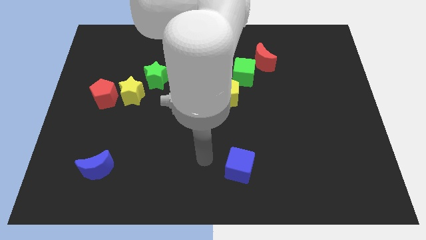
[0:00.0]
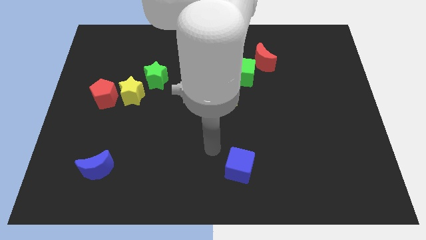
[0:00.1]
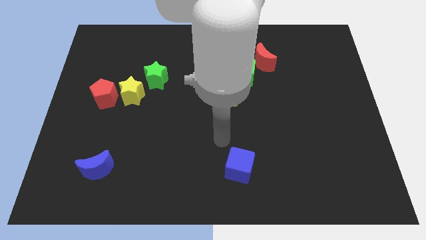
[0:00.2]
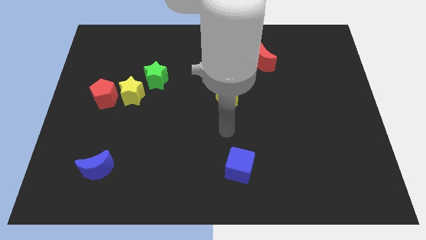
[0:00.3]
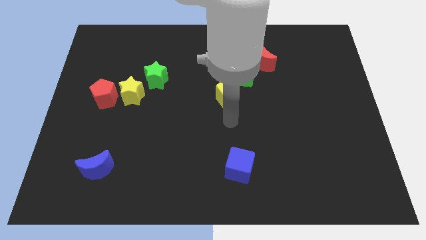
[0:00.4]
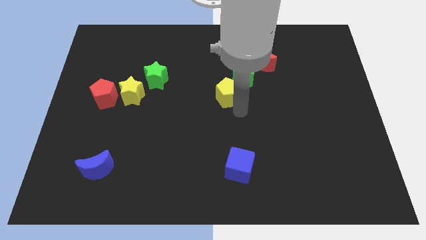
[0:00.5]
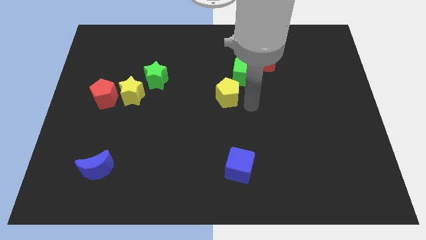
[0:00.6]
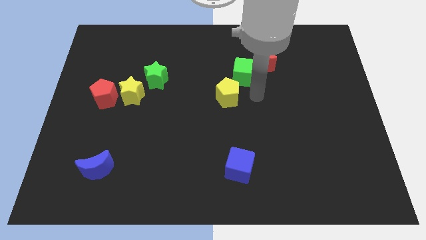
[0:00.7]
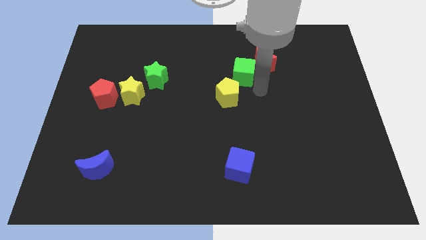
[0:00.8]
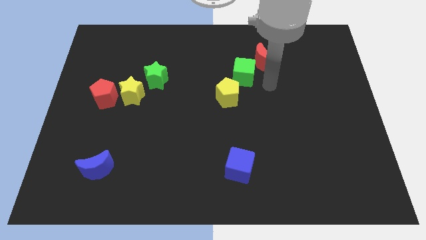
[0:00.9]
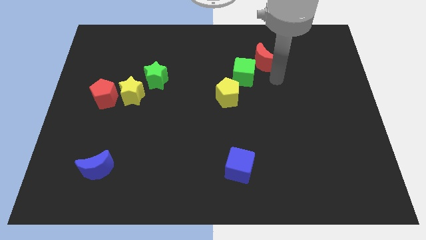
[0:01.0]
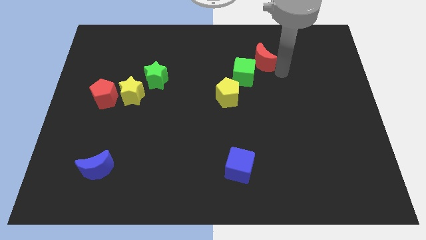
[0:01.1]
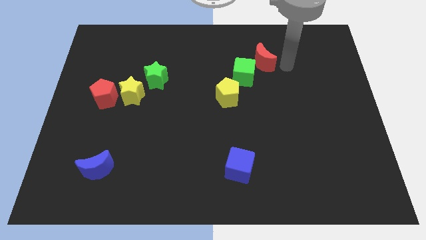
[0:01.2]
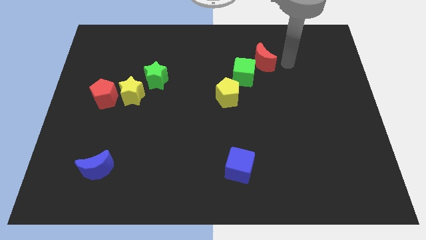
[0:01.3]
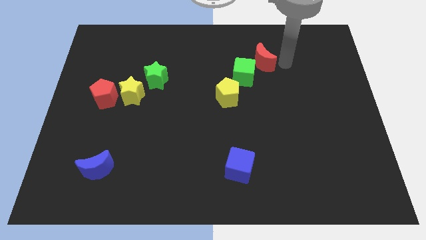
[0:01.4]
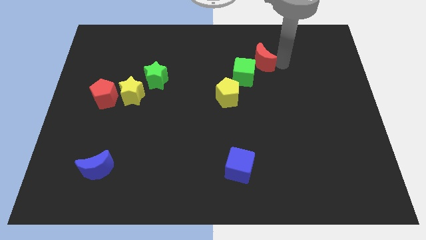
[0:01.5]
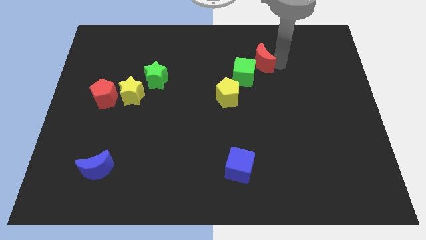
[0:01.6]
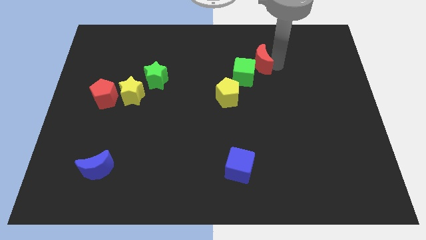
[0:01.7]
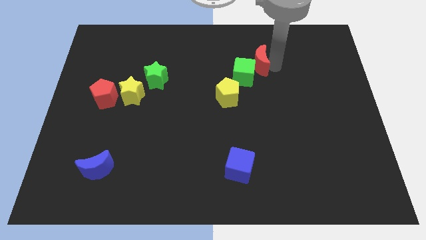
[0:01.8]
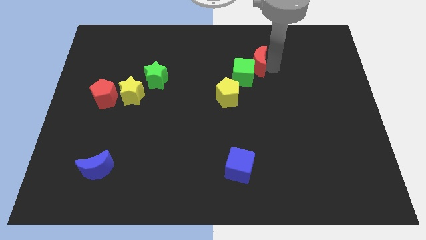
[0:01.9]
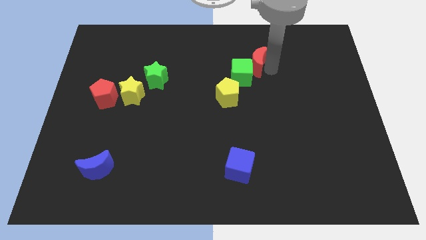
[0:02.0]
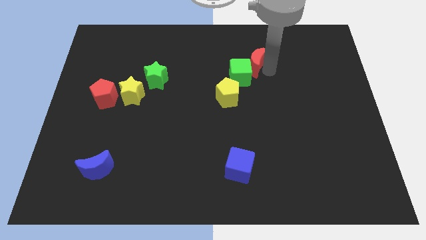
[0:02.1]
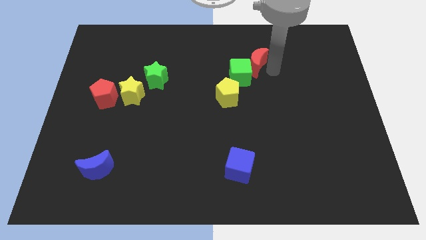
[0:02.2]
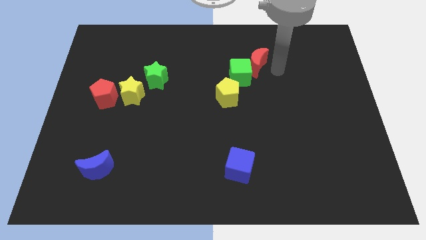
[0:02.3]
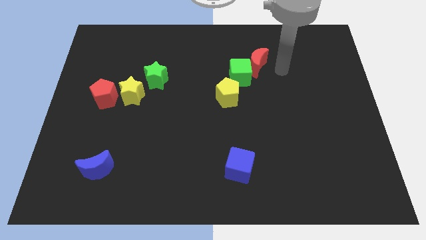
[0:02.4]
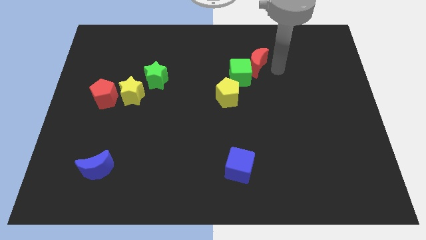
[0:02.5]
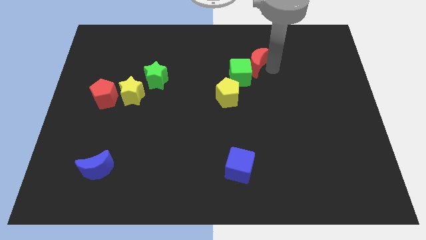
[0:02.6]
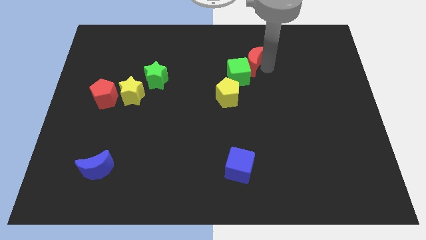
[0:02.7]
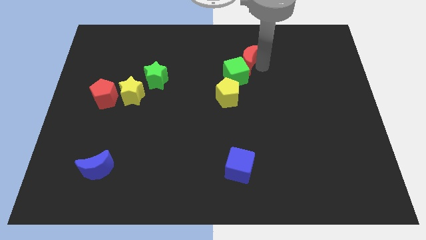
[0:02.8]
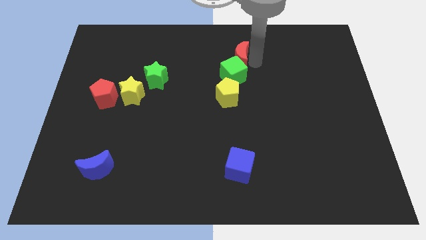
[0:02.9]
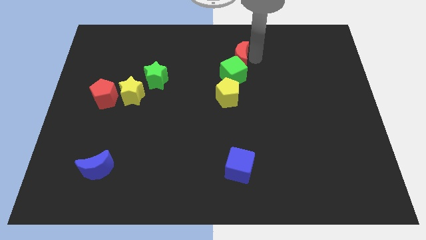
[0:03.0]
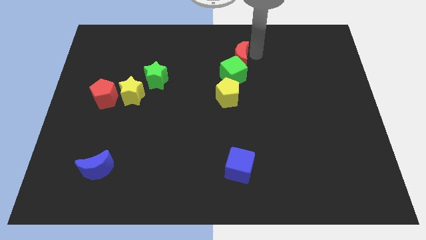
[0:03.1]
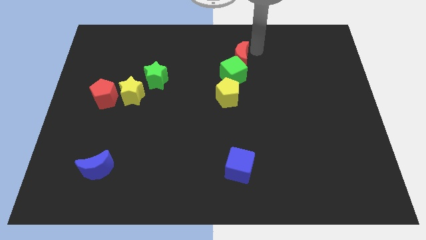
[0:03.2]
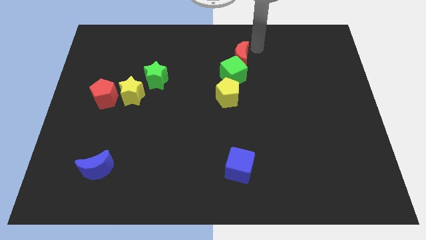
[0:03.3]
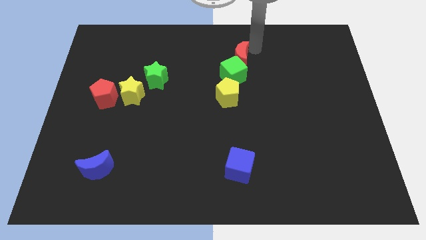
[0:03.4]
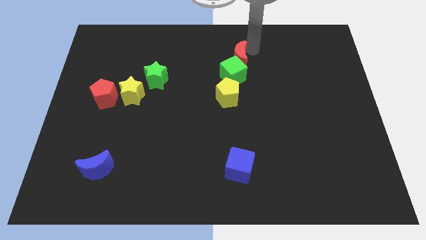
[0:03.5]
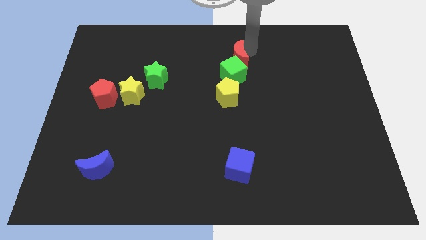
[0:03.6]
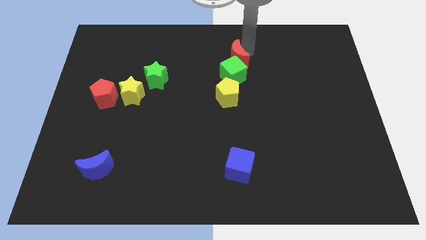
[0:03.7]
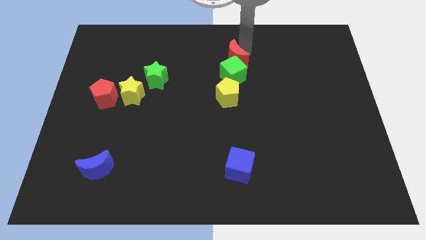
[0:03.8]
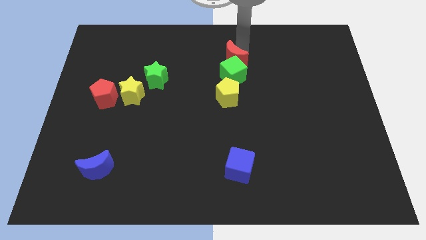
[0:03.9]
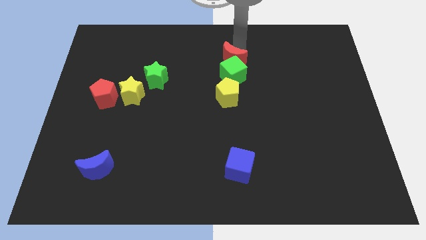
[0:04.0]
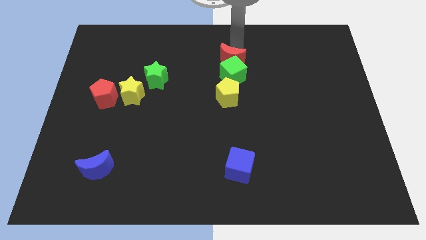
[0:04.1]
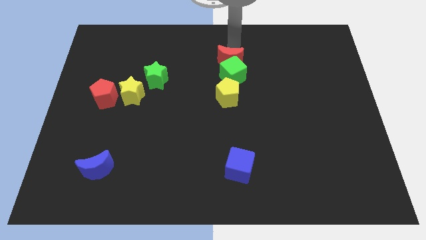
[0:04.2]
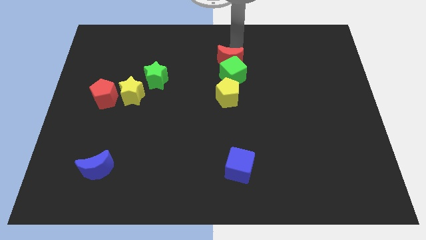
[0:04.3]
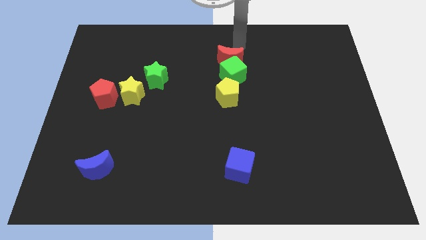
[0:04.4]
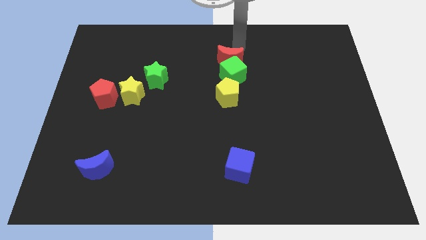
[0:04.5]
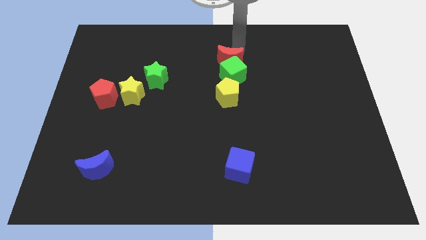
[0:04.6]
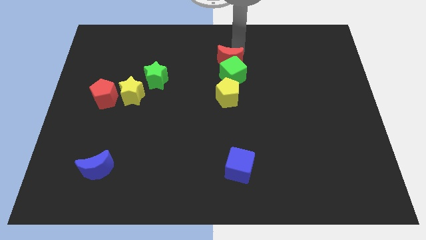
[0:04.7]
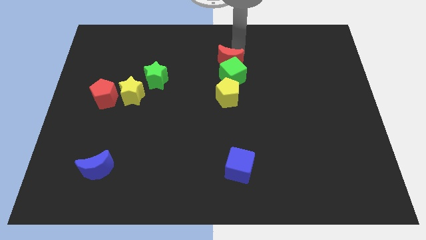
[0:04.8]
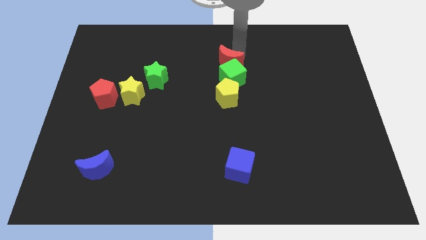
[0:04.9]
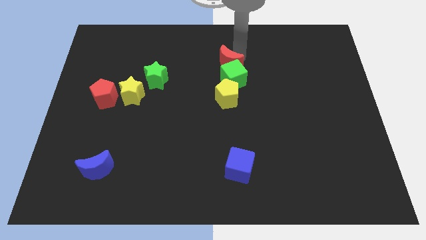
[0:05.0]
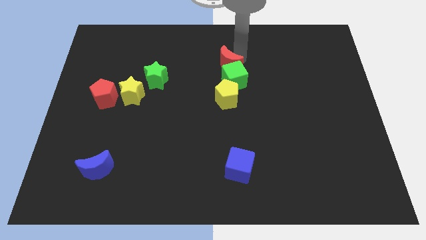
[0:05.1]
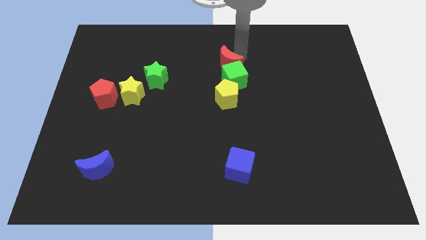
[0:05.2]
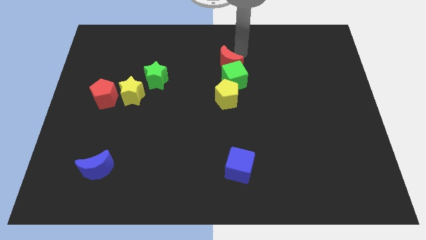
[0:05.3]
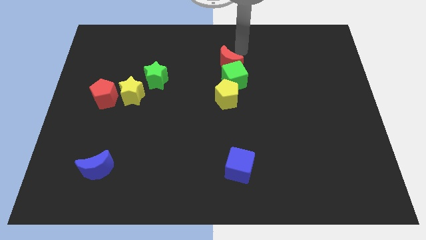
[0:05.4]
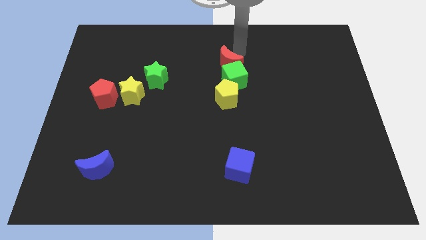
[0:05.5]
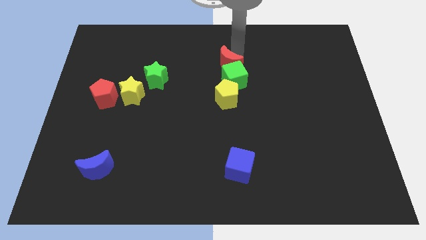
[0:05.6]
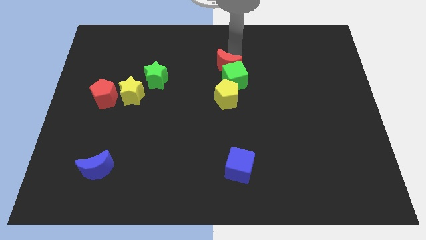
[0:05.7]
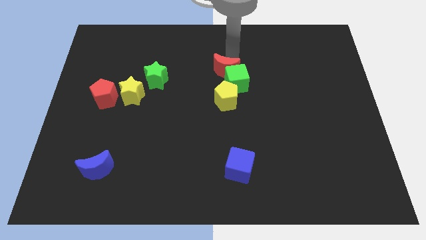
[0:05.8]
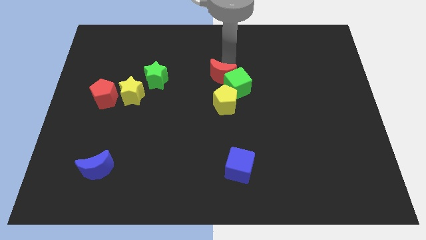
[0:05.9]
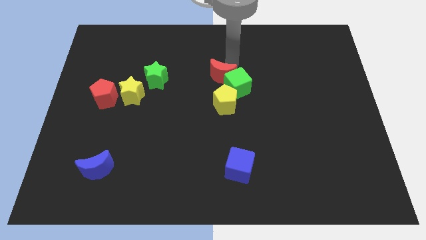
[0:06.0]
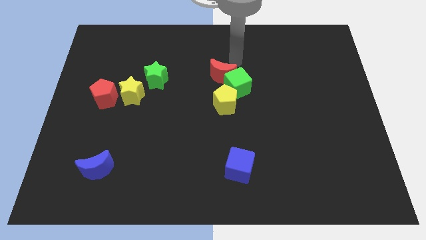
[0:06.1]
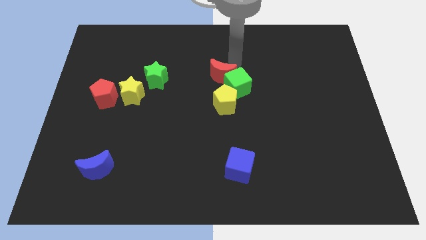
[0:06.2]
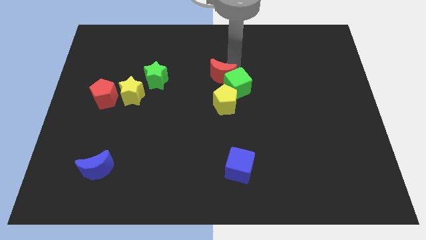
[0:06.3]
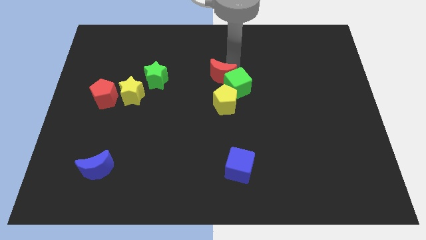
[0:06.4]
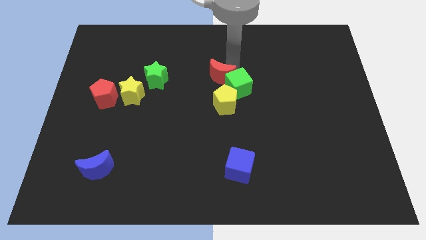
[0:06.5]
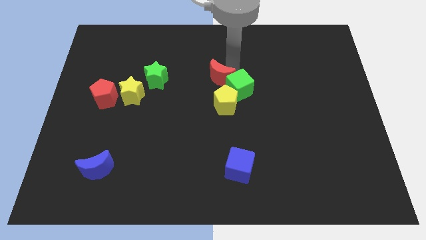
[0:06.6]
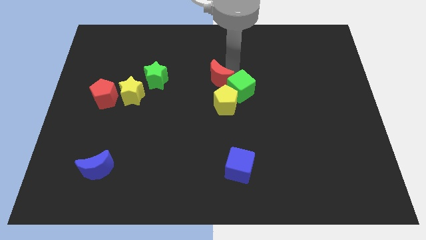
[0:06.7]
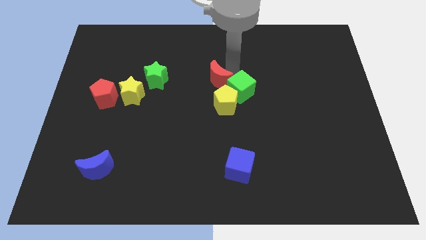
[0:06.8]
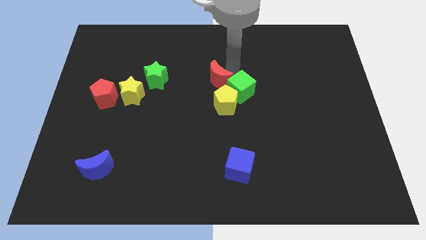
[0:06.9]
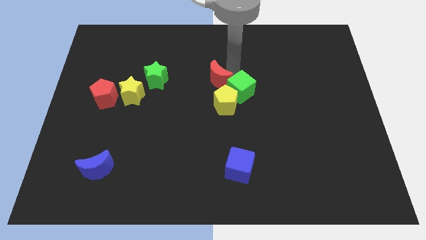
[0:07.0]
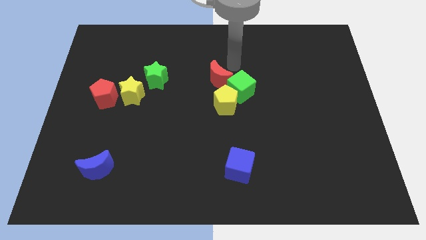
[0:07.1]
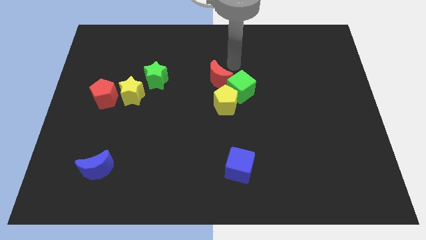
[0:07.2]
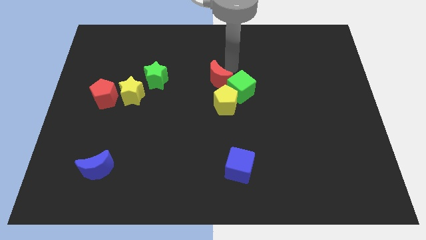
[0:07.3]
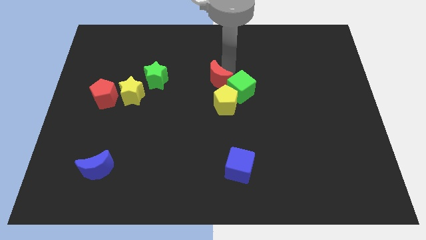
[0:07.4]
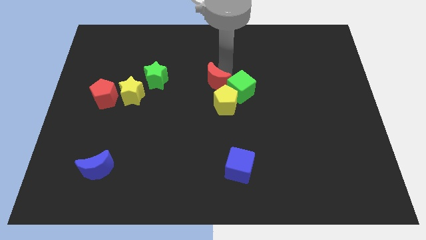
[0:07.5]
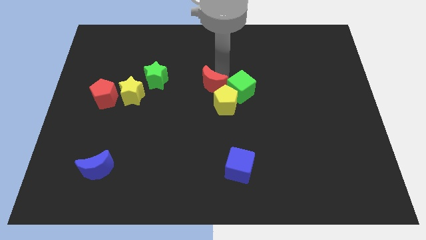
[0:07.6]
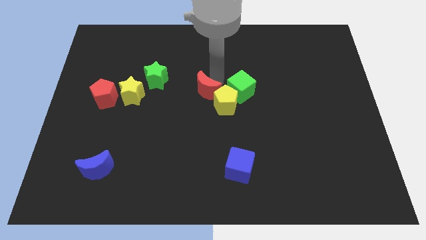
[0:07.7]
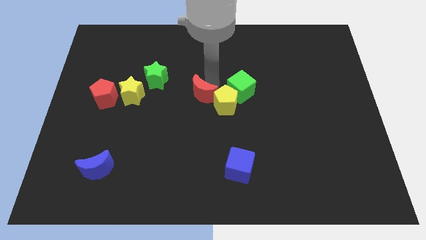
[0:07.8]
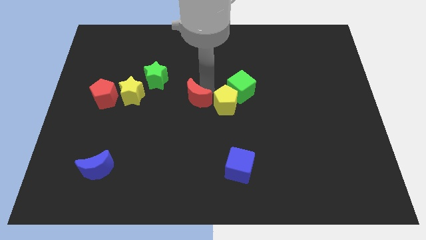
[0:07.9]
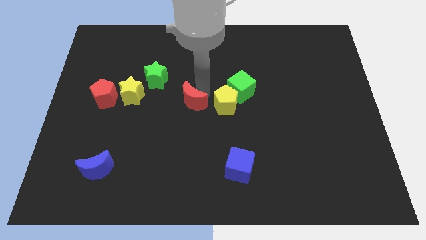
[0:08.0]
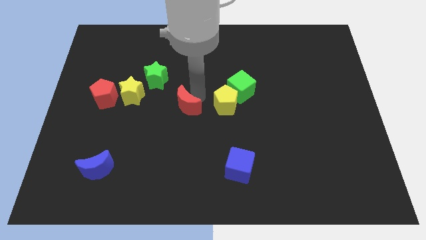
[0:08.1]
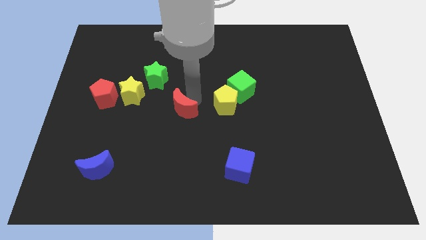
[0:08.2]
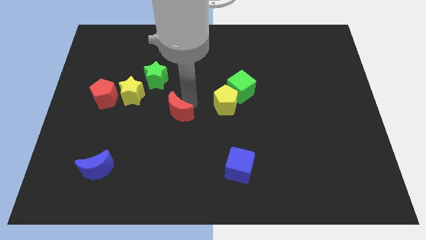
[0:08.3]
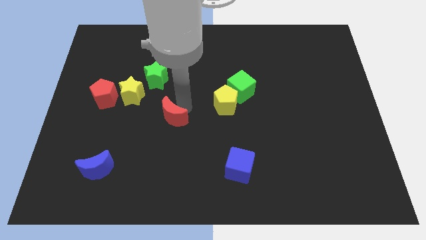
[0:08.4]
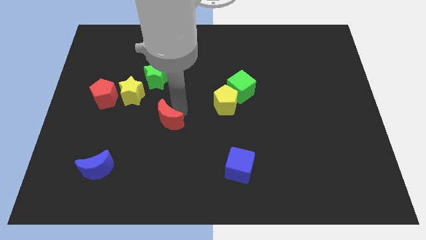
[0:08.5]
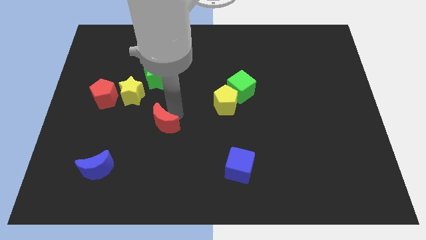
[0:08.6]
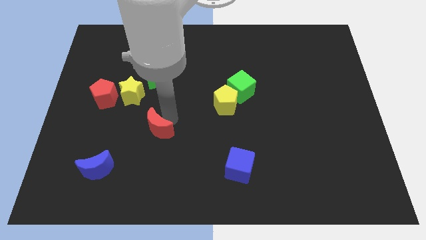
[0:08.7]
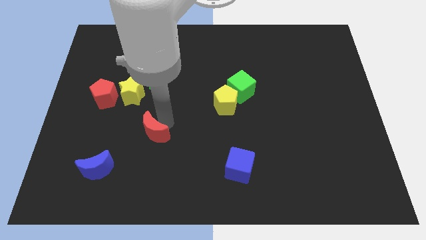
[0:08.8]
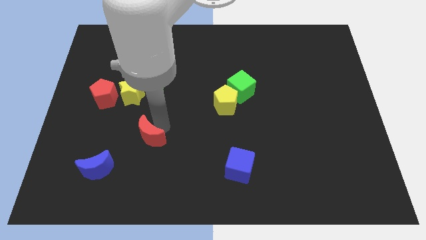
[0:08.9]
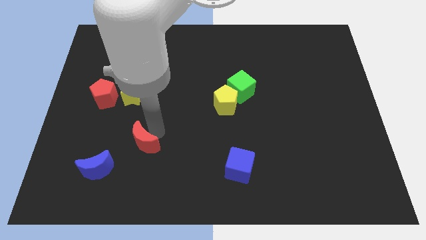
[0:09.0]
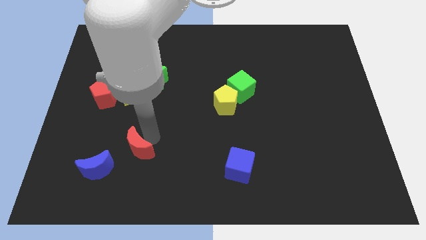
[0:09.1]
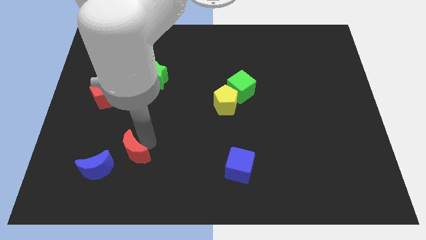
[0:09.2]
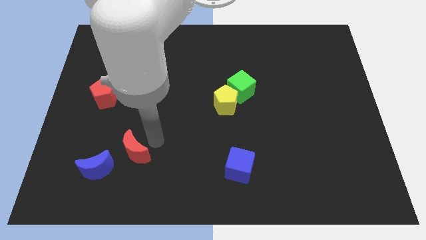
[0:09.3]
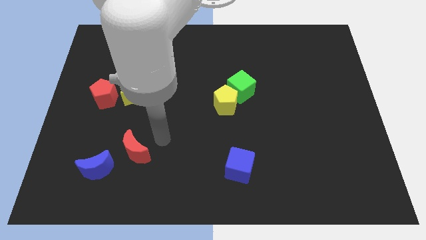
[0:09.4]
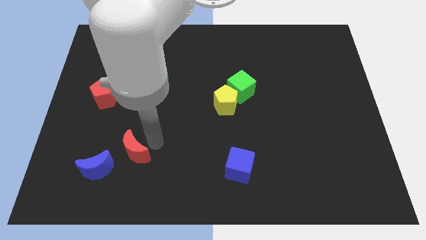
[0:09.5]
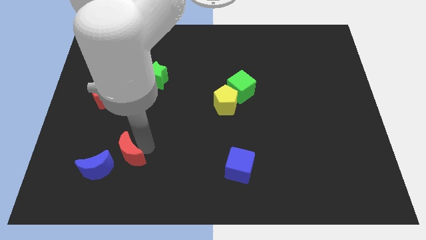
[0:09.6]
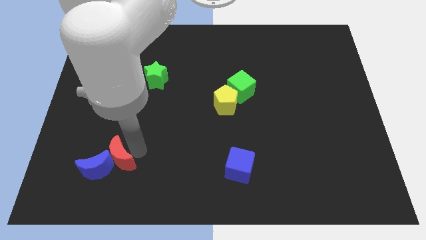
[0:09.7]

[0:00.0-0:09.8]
slide the red moon next to the blue moon
